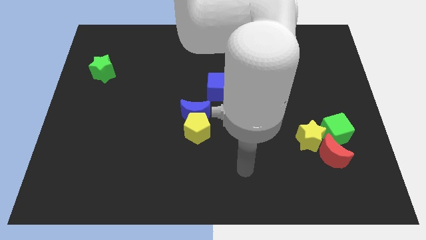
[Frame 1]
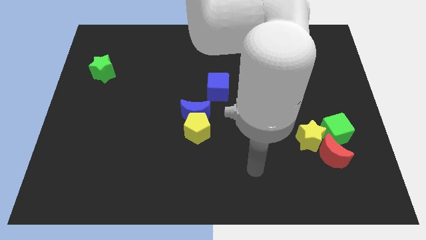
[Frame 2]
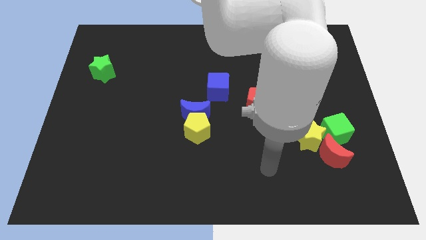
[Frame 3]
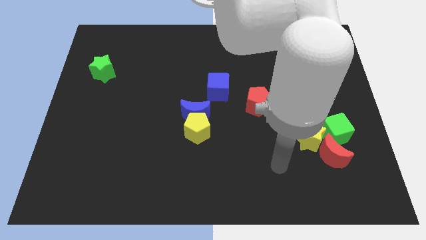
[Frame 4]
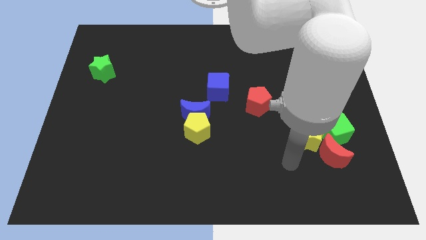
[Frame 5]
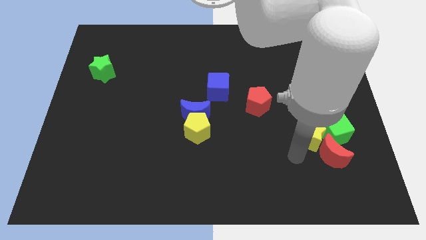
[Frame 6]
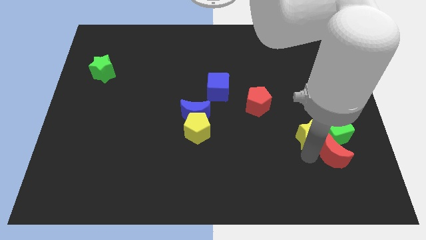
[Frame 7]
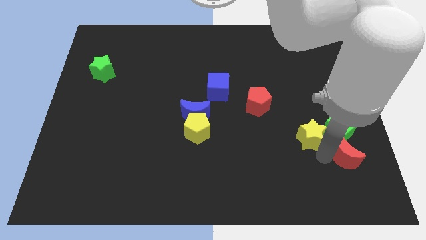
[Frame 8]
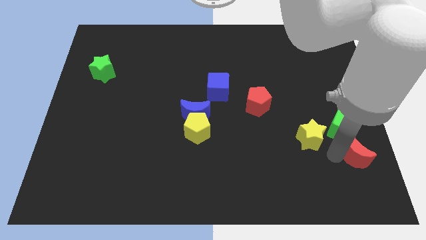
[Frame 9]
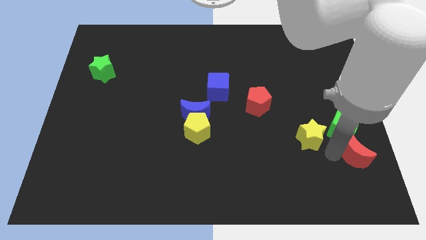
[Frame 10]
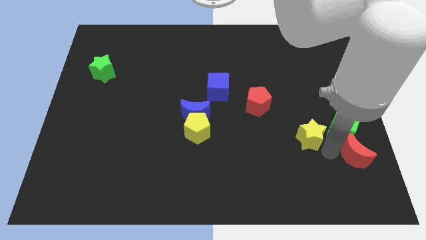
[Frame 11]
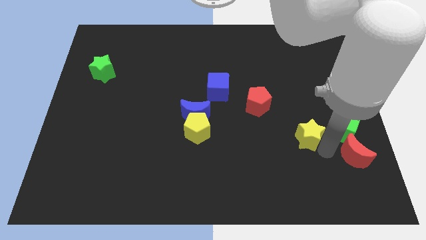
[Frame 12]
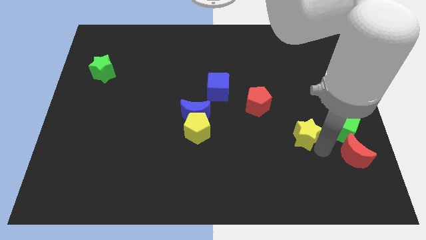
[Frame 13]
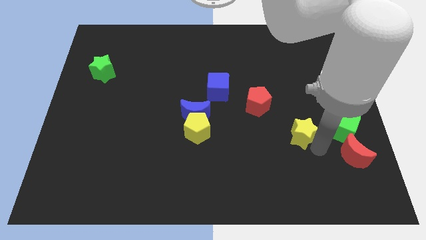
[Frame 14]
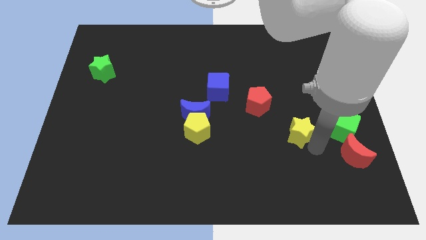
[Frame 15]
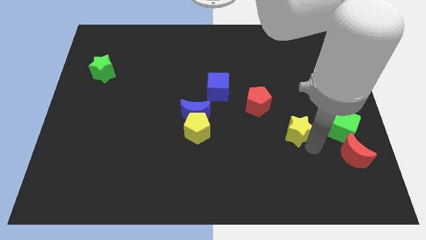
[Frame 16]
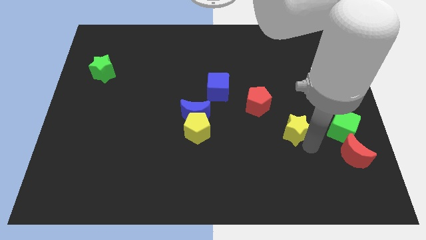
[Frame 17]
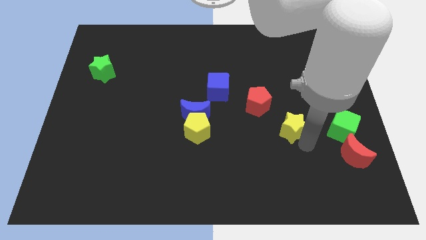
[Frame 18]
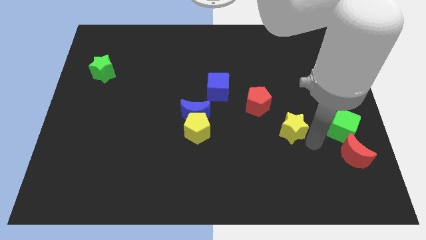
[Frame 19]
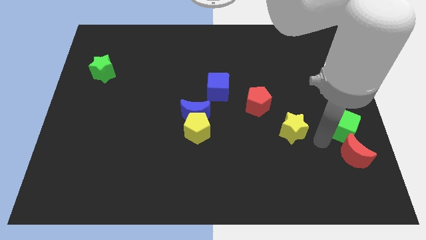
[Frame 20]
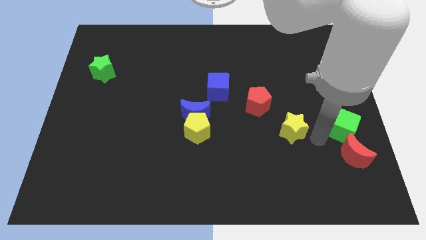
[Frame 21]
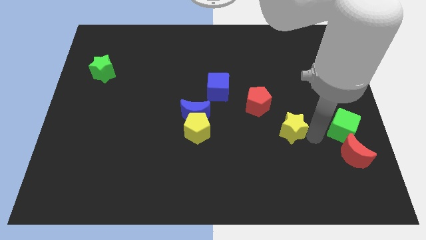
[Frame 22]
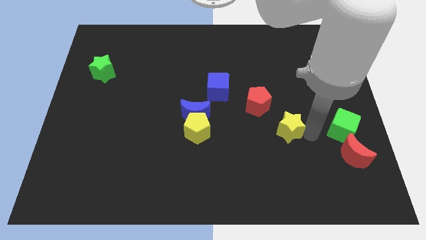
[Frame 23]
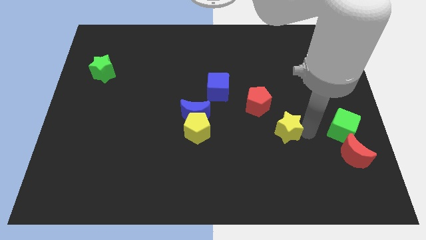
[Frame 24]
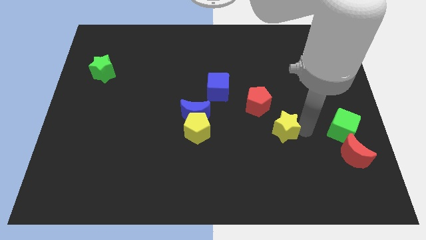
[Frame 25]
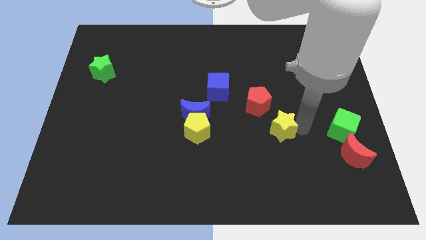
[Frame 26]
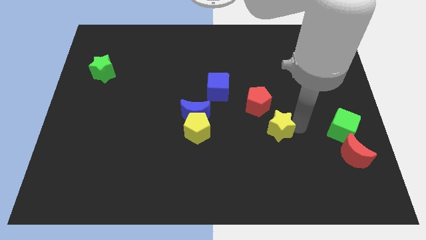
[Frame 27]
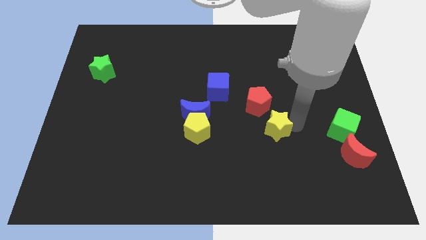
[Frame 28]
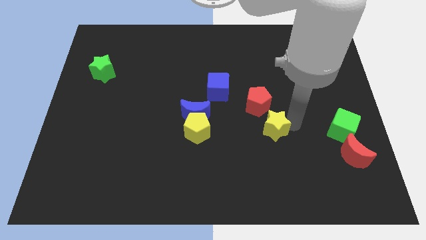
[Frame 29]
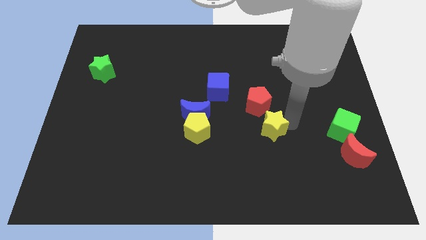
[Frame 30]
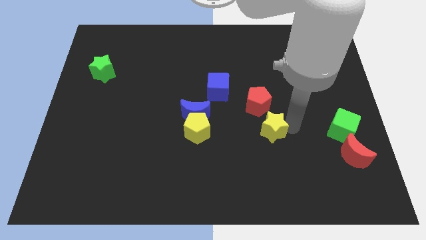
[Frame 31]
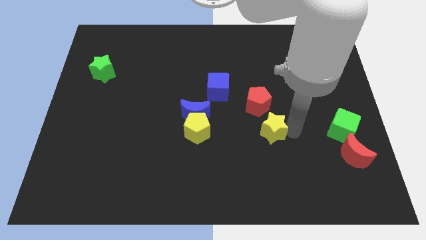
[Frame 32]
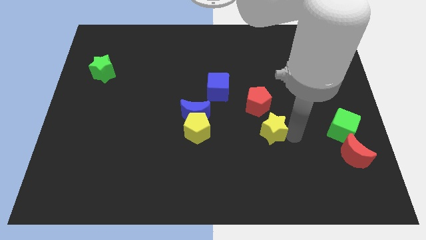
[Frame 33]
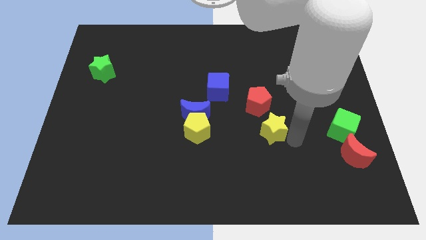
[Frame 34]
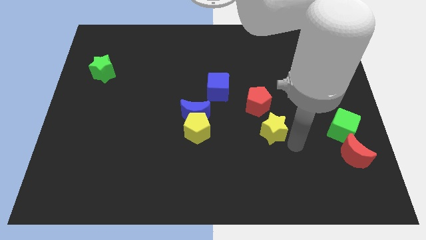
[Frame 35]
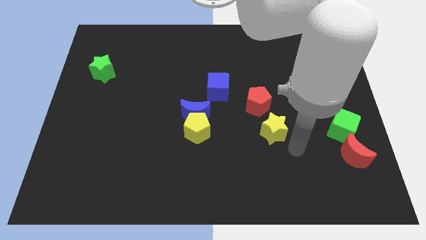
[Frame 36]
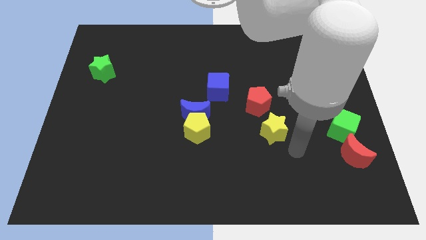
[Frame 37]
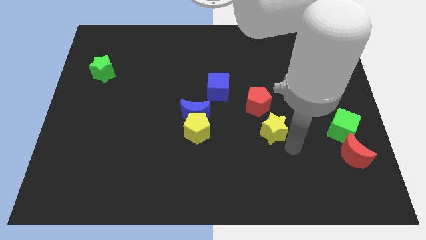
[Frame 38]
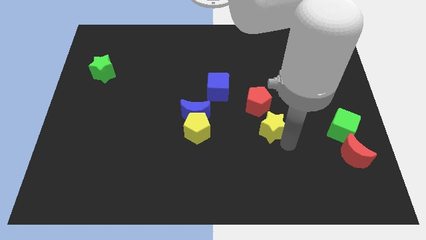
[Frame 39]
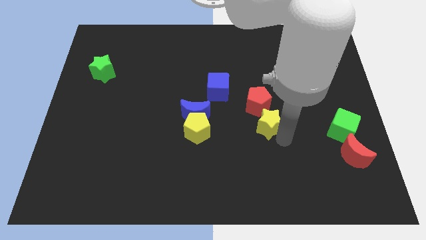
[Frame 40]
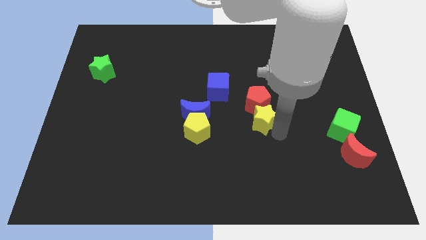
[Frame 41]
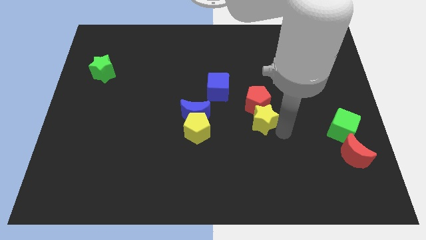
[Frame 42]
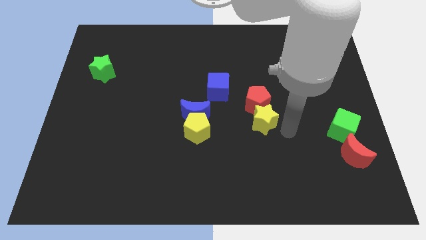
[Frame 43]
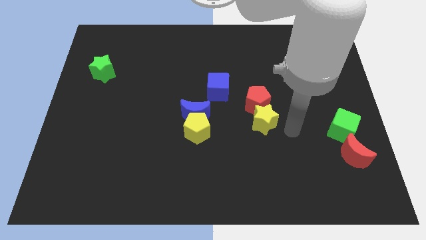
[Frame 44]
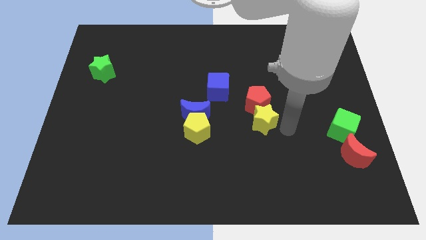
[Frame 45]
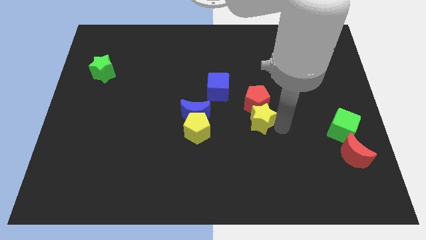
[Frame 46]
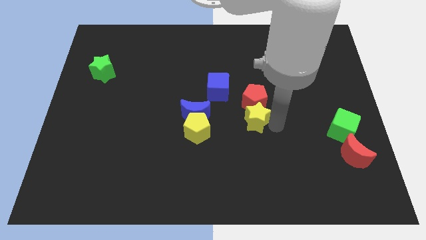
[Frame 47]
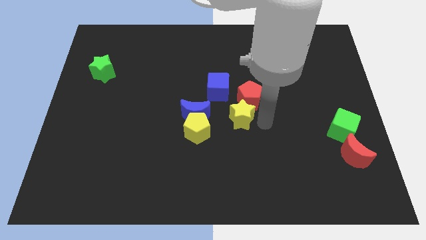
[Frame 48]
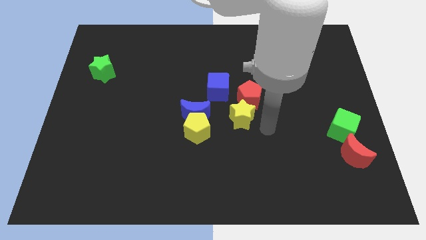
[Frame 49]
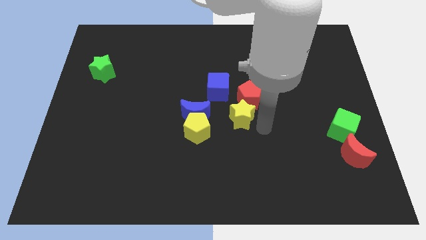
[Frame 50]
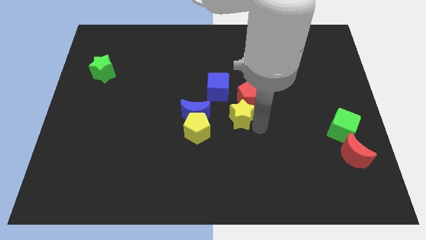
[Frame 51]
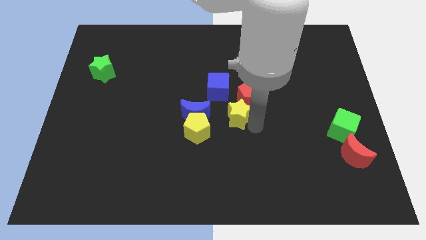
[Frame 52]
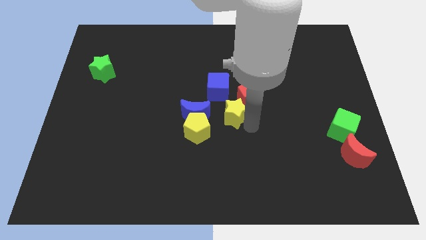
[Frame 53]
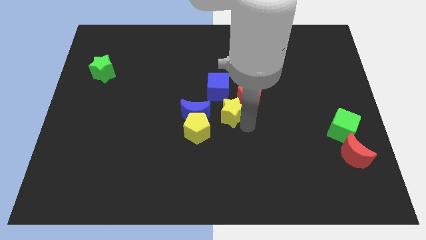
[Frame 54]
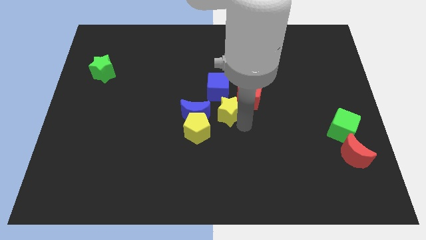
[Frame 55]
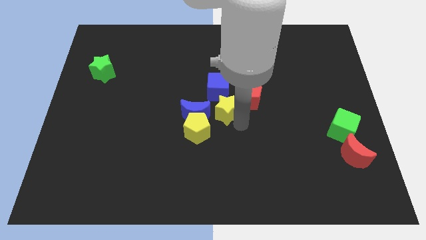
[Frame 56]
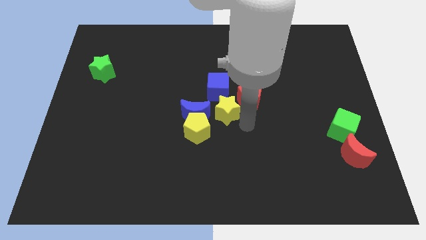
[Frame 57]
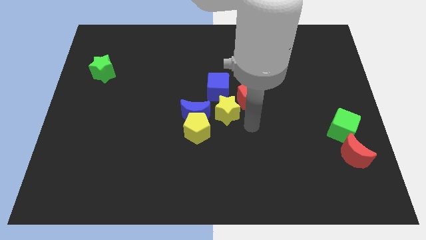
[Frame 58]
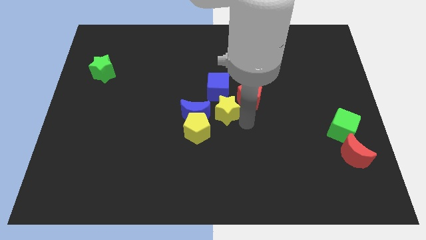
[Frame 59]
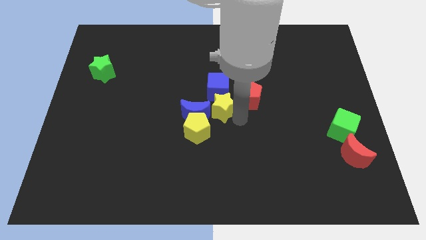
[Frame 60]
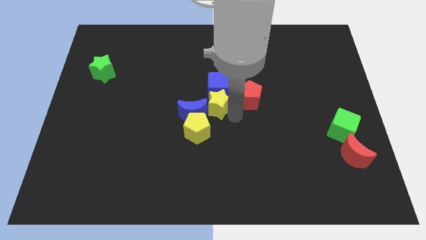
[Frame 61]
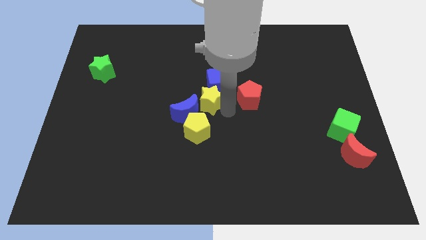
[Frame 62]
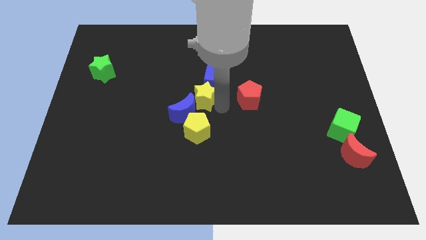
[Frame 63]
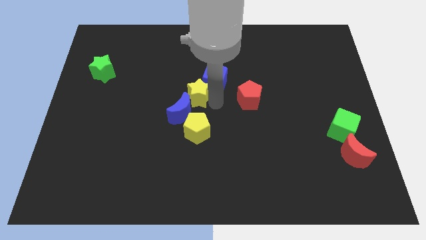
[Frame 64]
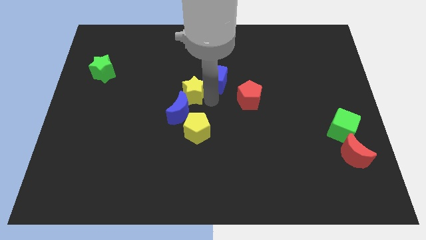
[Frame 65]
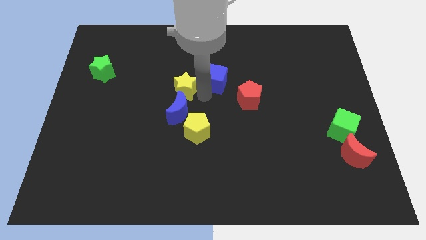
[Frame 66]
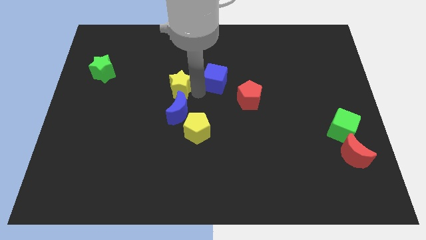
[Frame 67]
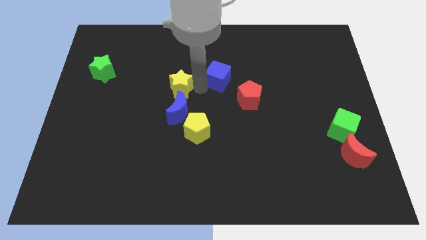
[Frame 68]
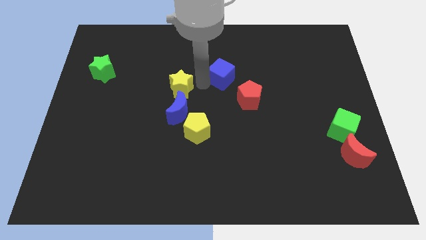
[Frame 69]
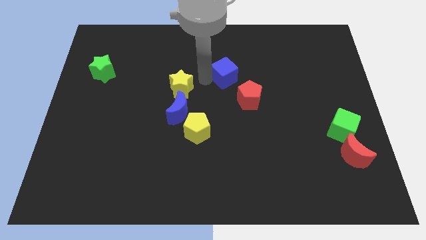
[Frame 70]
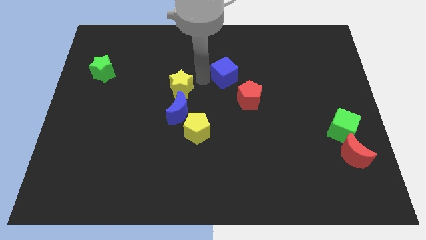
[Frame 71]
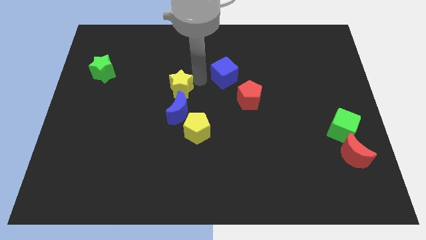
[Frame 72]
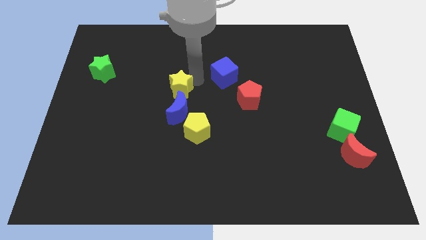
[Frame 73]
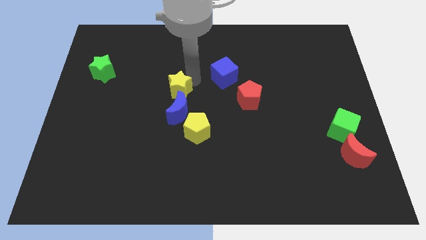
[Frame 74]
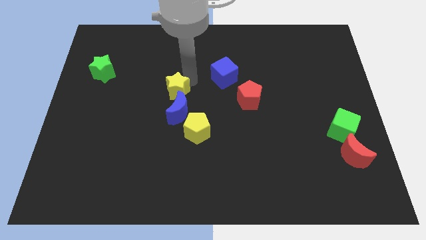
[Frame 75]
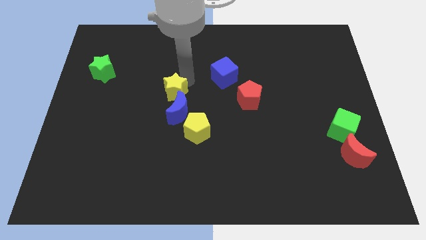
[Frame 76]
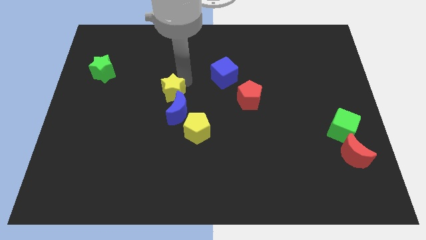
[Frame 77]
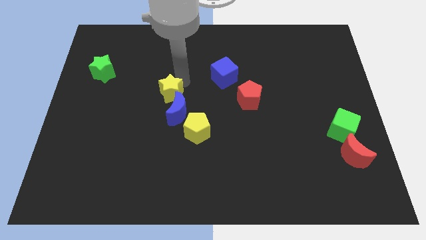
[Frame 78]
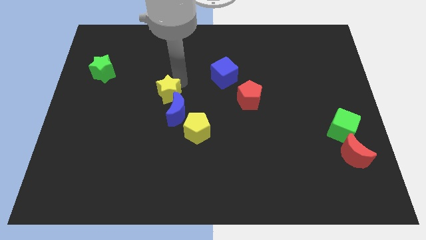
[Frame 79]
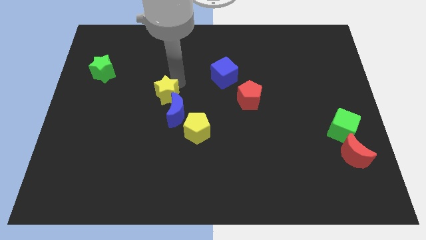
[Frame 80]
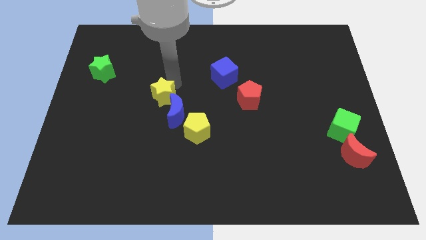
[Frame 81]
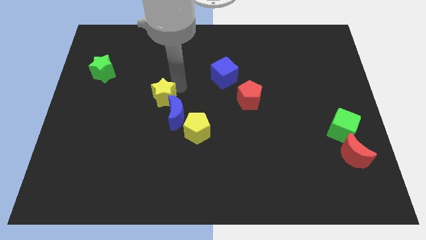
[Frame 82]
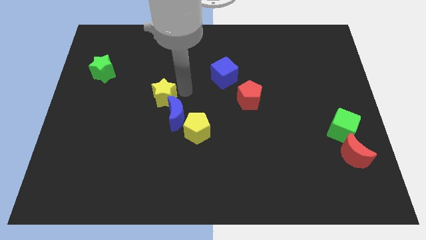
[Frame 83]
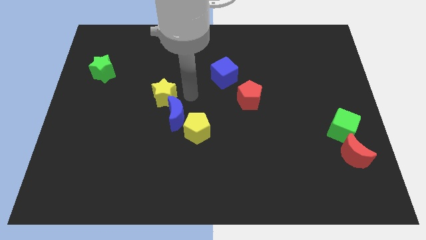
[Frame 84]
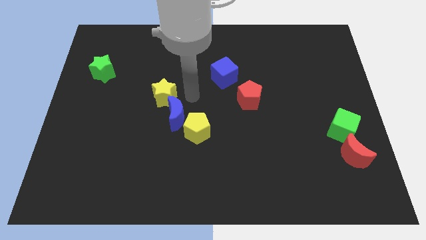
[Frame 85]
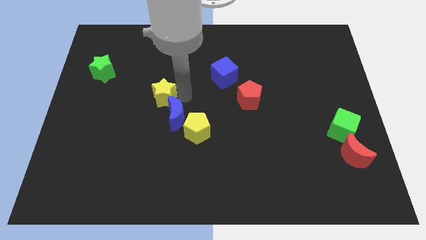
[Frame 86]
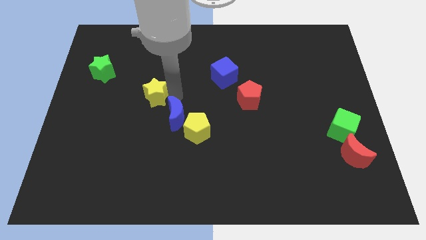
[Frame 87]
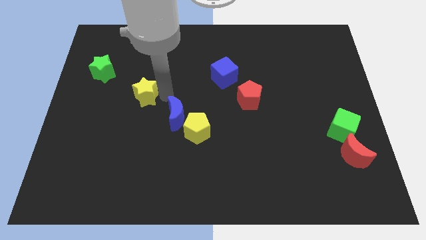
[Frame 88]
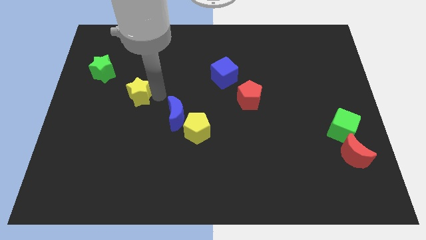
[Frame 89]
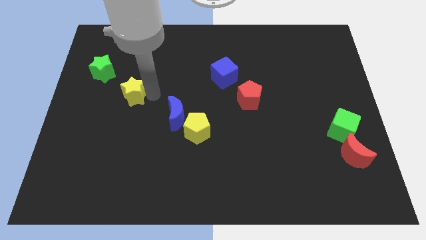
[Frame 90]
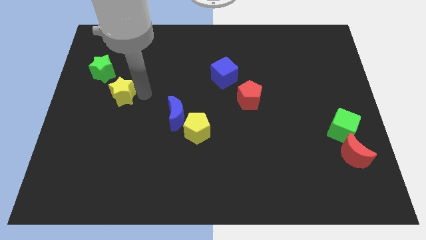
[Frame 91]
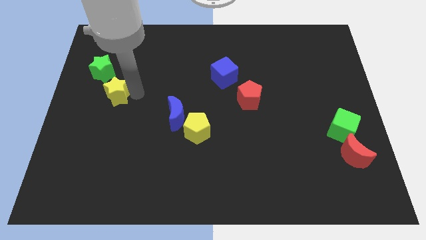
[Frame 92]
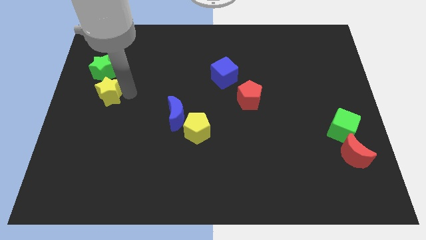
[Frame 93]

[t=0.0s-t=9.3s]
push the yellow star to the left side of the board
